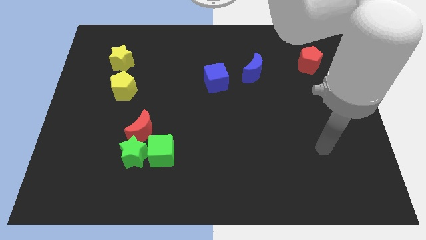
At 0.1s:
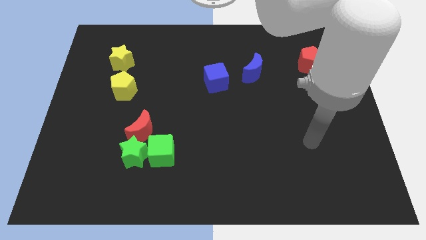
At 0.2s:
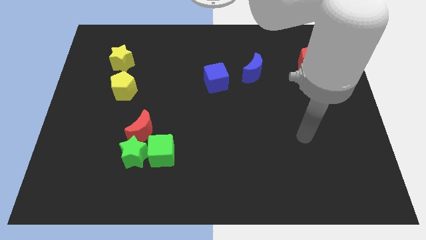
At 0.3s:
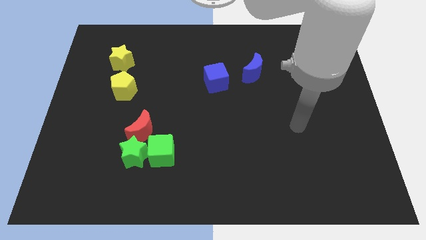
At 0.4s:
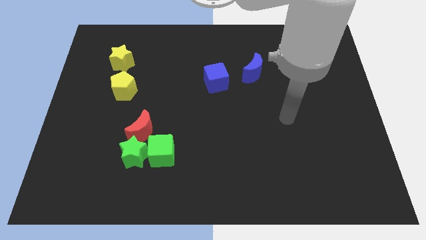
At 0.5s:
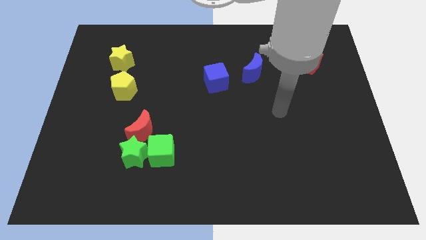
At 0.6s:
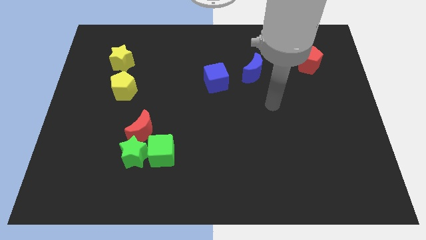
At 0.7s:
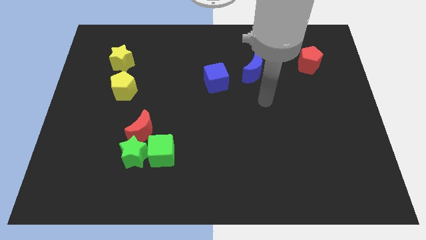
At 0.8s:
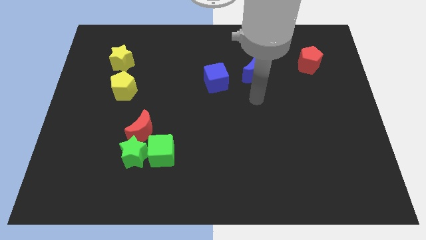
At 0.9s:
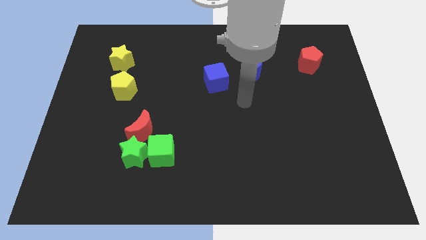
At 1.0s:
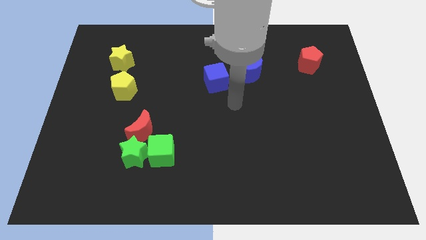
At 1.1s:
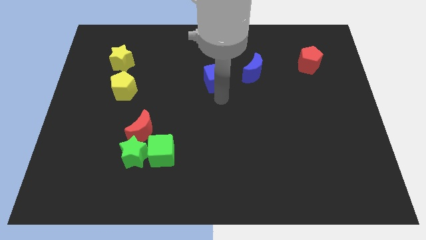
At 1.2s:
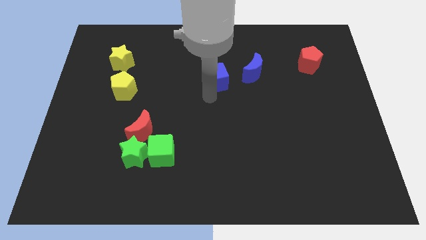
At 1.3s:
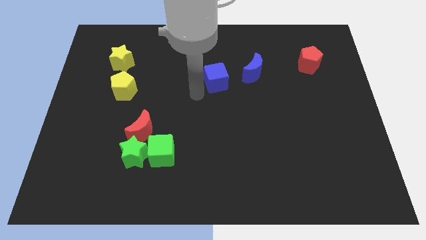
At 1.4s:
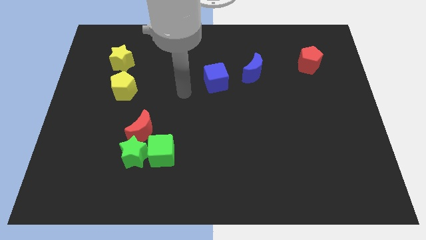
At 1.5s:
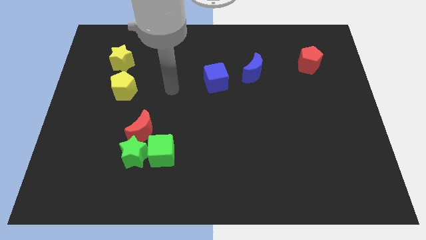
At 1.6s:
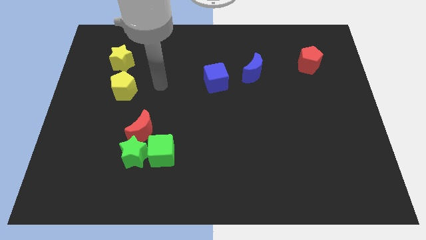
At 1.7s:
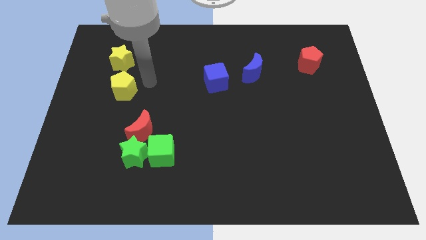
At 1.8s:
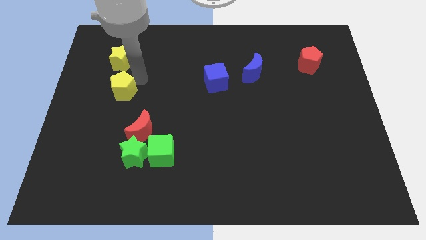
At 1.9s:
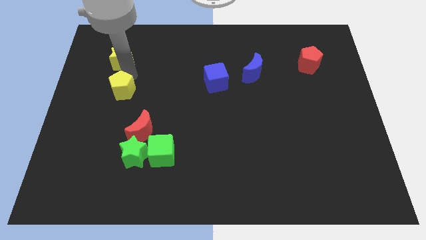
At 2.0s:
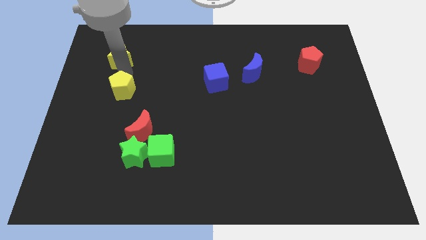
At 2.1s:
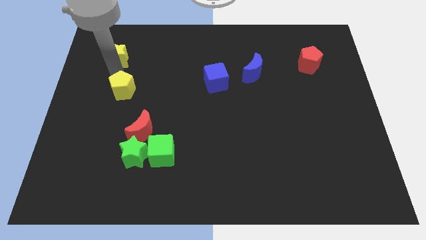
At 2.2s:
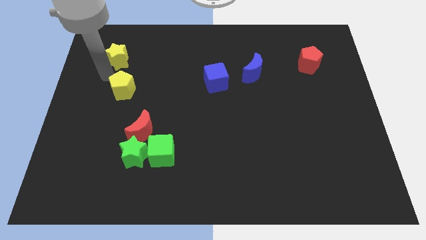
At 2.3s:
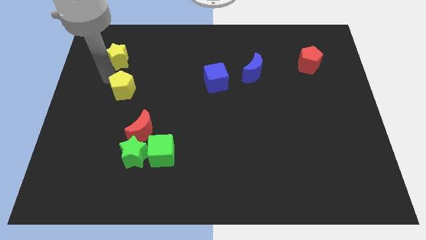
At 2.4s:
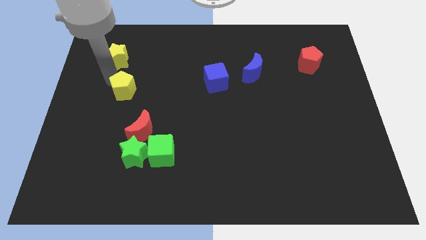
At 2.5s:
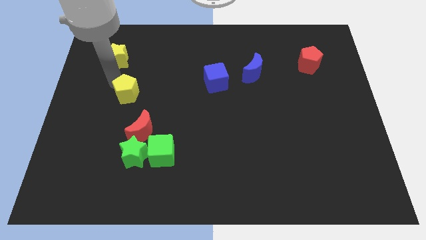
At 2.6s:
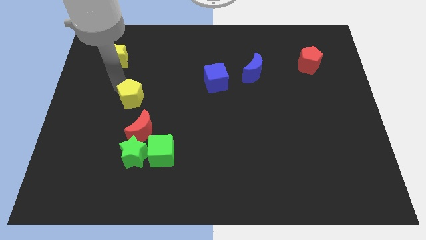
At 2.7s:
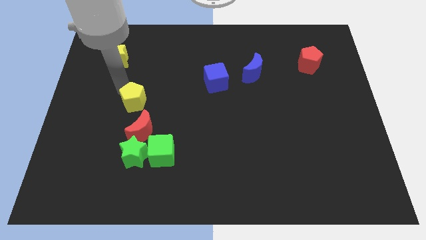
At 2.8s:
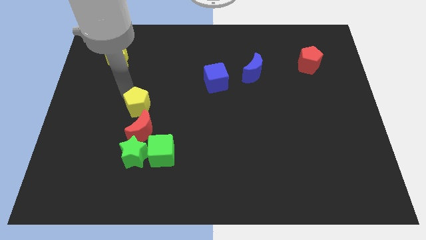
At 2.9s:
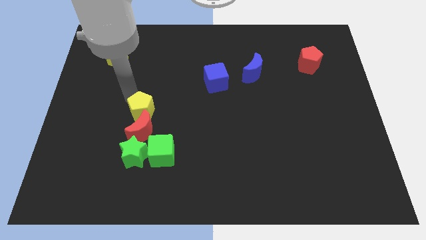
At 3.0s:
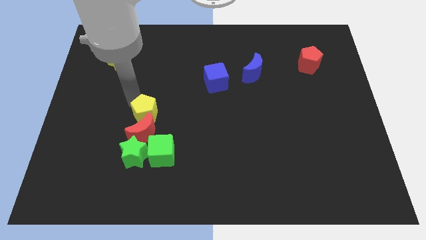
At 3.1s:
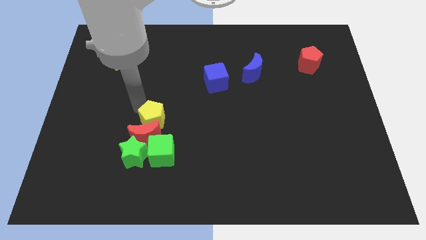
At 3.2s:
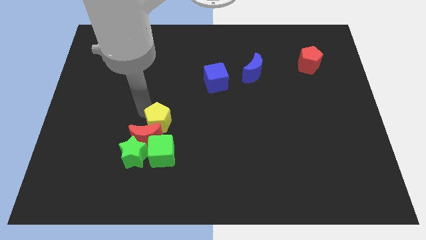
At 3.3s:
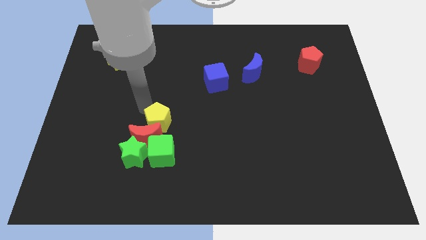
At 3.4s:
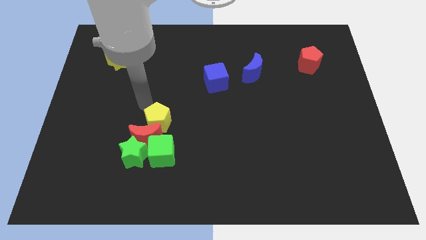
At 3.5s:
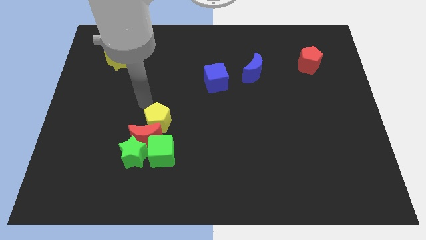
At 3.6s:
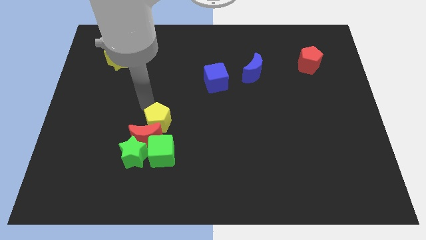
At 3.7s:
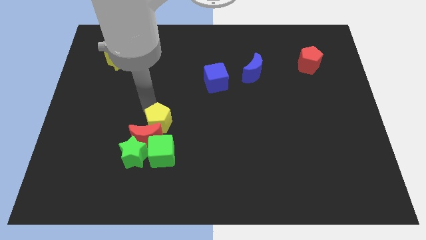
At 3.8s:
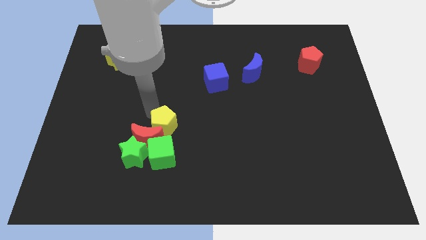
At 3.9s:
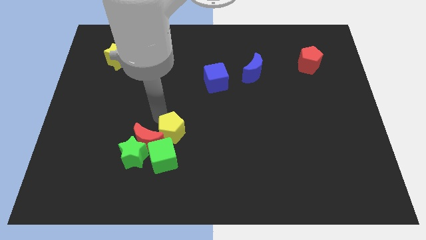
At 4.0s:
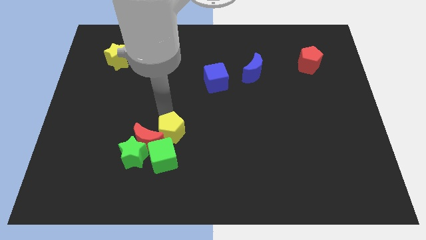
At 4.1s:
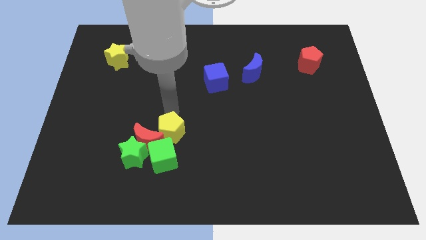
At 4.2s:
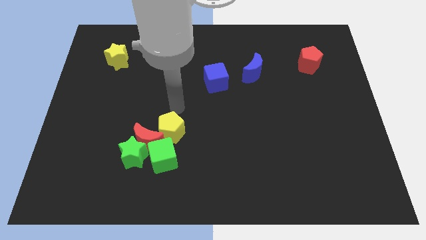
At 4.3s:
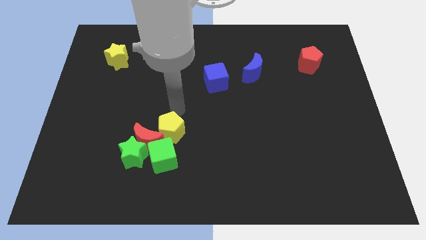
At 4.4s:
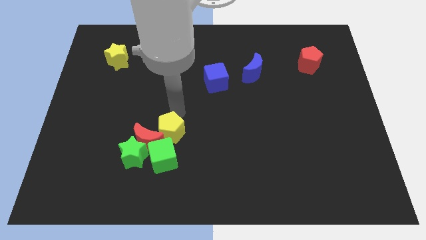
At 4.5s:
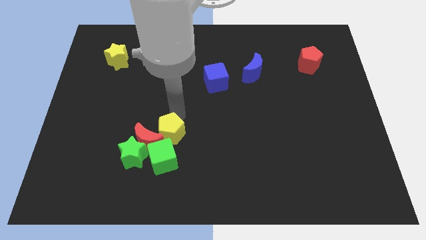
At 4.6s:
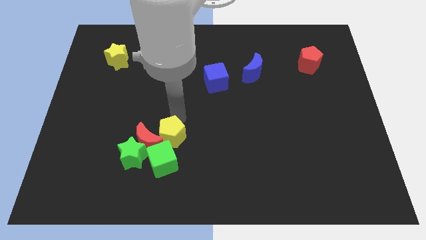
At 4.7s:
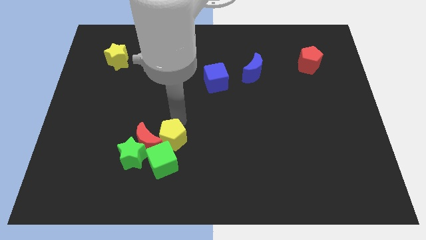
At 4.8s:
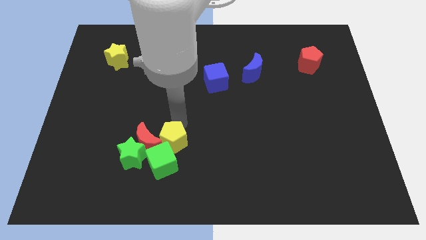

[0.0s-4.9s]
push the yellow pentagon towards the green cube

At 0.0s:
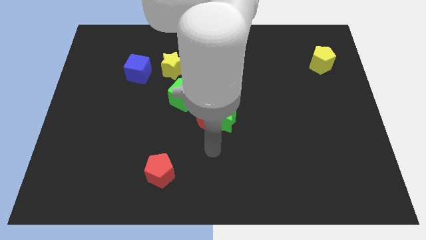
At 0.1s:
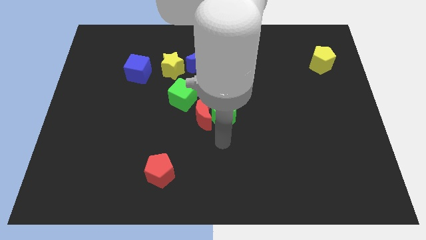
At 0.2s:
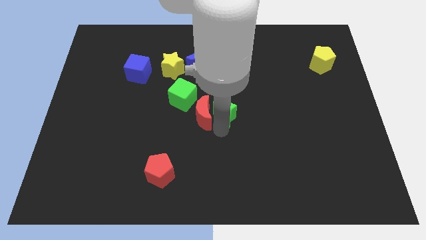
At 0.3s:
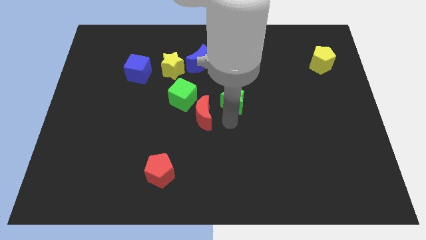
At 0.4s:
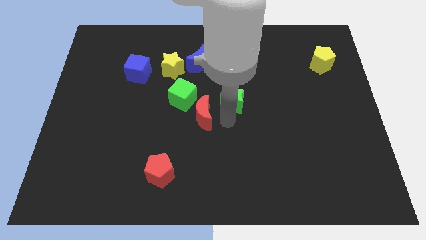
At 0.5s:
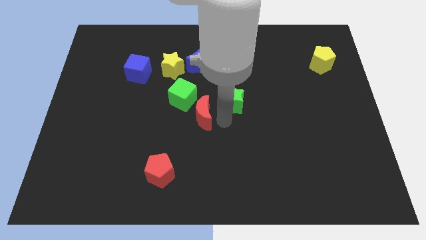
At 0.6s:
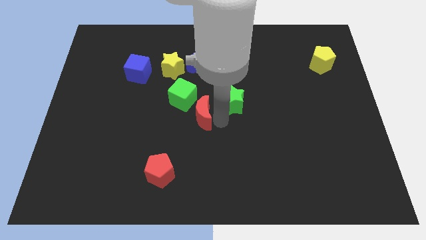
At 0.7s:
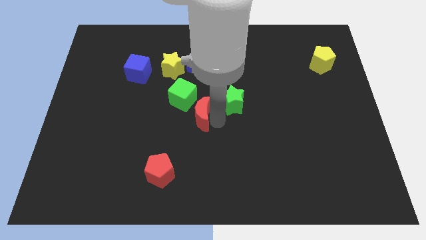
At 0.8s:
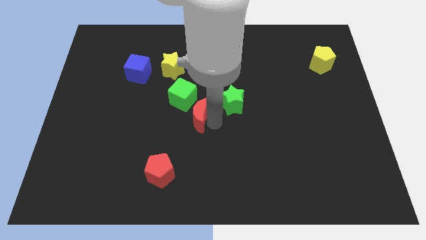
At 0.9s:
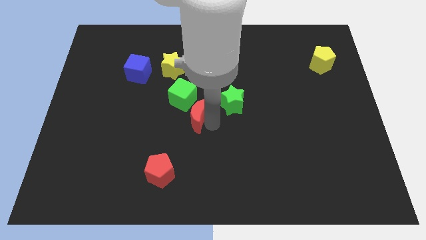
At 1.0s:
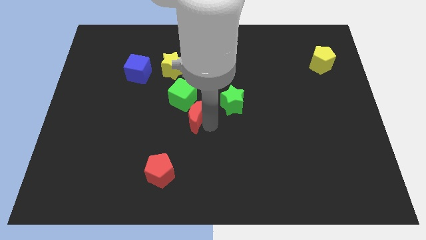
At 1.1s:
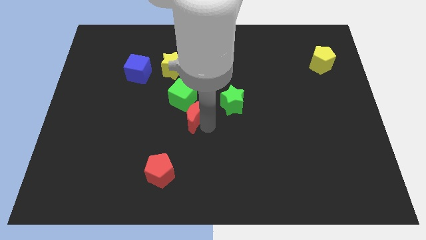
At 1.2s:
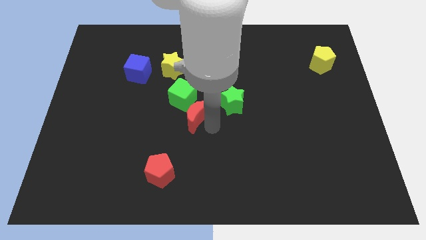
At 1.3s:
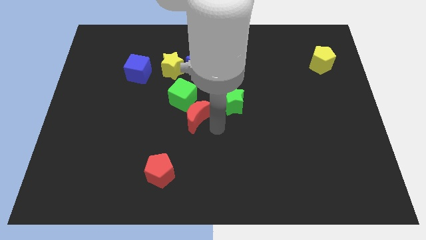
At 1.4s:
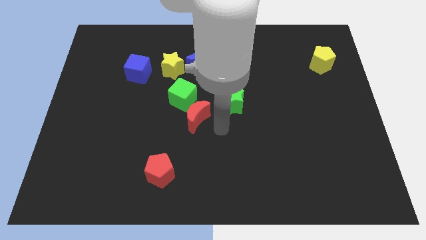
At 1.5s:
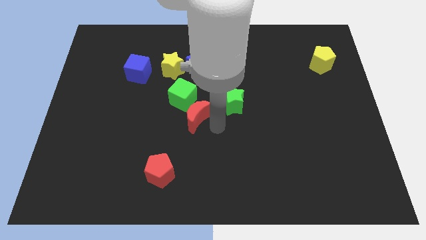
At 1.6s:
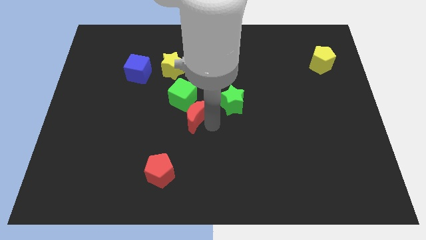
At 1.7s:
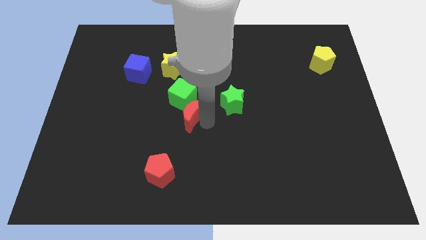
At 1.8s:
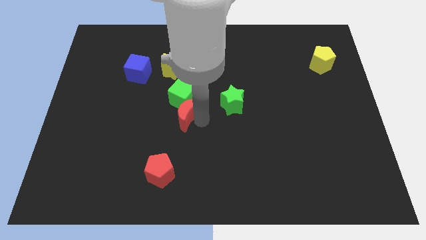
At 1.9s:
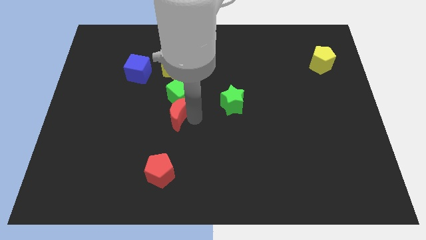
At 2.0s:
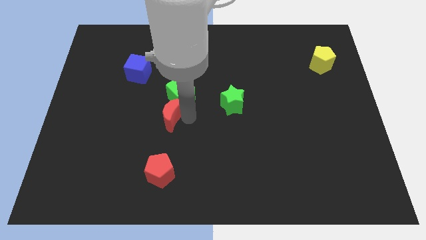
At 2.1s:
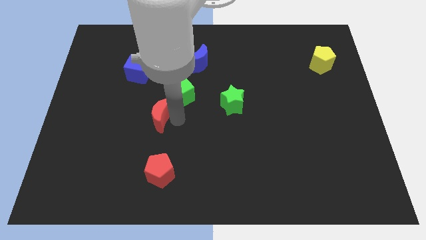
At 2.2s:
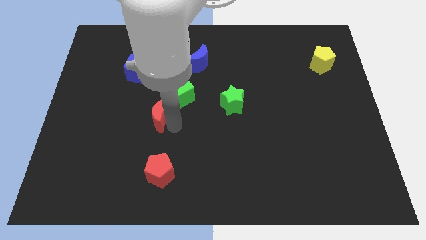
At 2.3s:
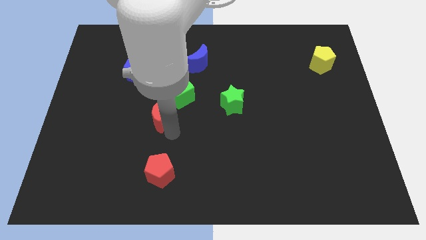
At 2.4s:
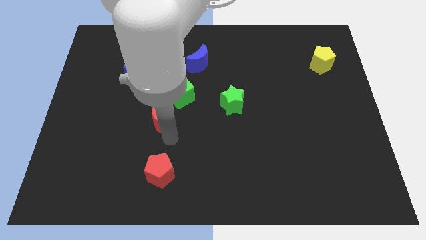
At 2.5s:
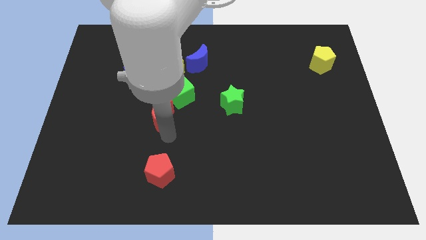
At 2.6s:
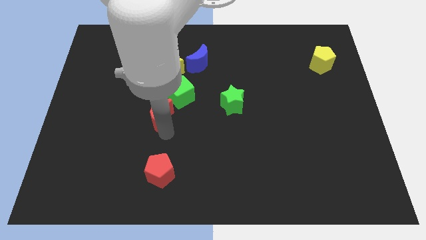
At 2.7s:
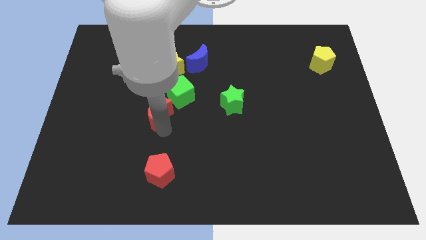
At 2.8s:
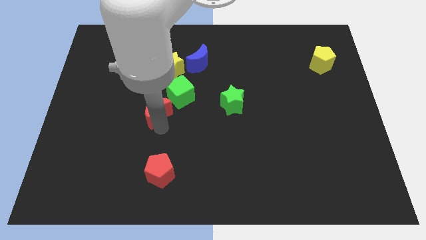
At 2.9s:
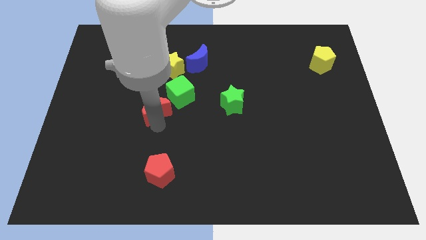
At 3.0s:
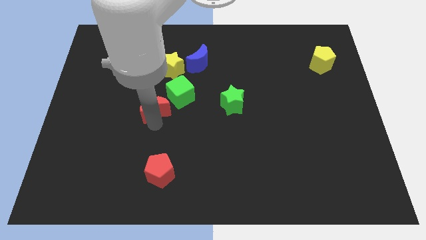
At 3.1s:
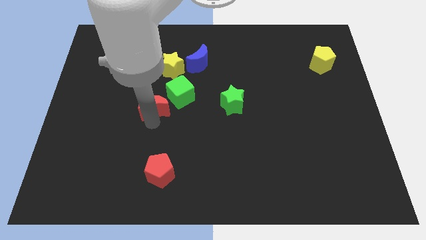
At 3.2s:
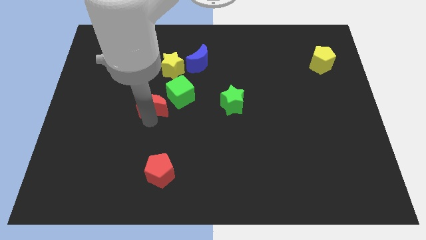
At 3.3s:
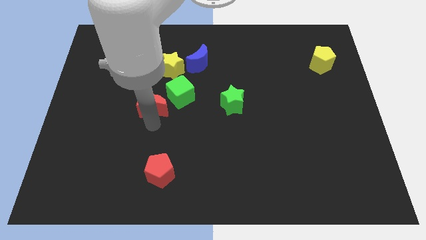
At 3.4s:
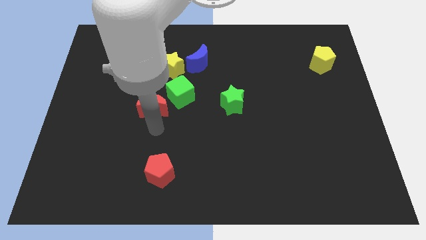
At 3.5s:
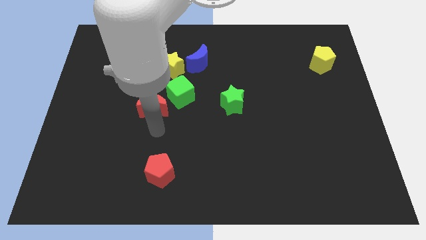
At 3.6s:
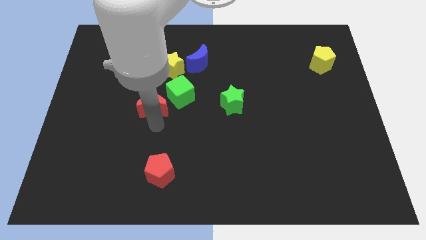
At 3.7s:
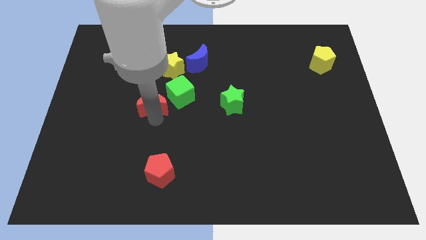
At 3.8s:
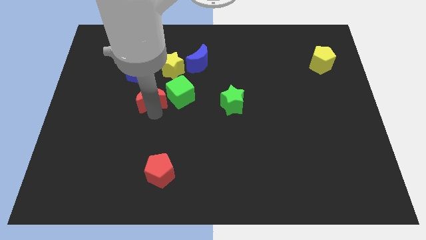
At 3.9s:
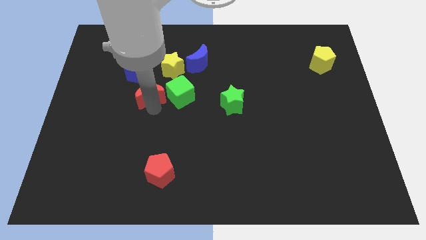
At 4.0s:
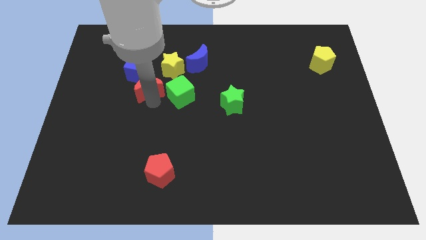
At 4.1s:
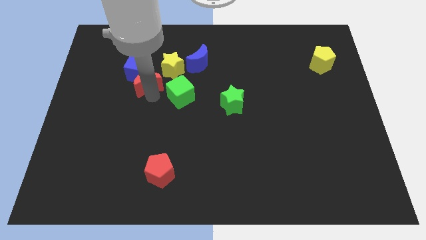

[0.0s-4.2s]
push the red moon to the blue cube
